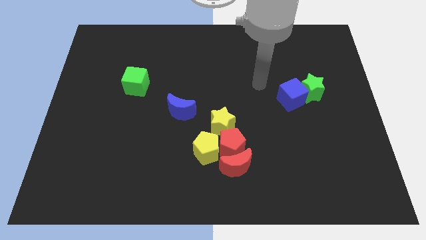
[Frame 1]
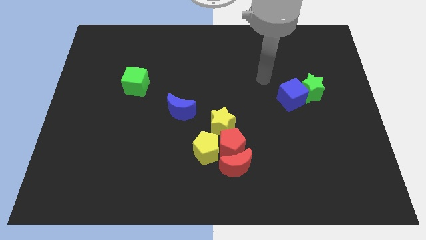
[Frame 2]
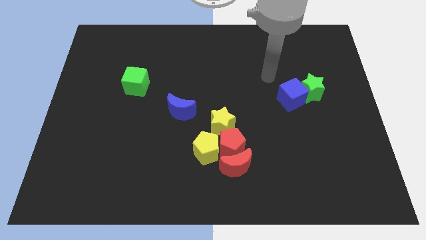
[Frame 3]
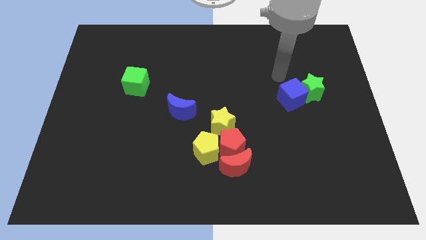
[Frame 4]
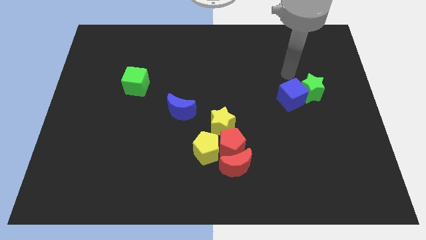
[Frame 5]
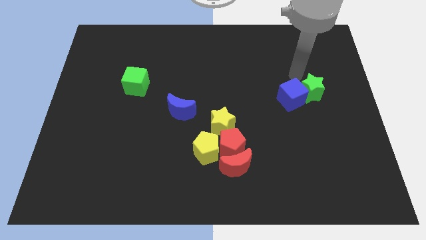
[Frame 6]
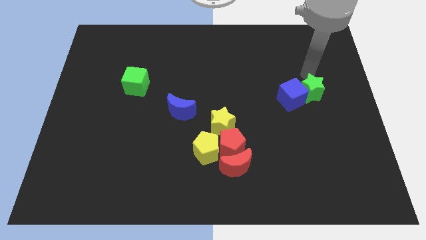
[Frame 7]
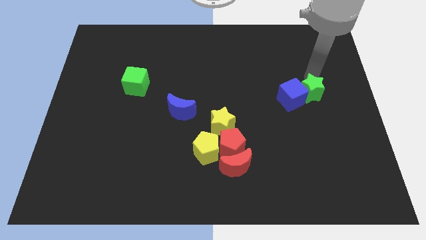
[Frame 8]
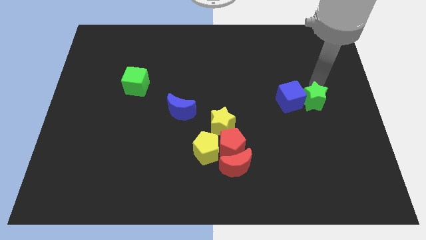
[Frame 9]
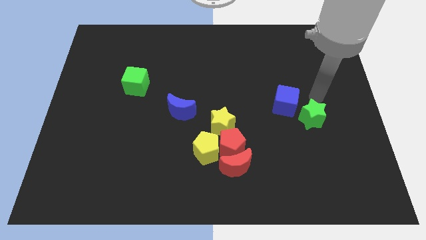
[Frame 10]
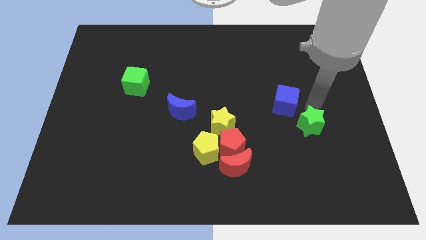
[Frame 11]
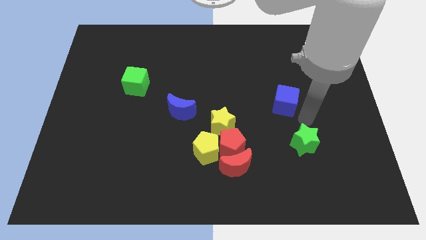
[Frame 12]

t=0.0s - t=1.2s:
move the blue cube away from the green star

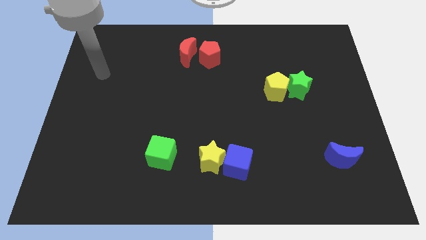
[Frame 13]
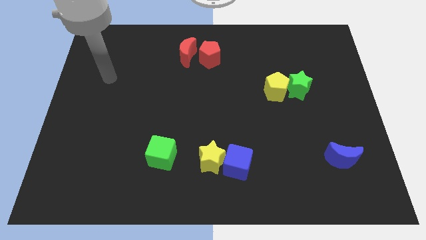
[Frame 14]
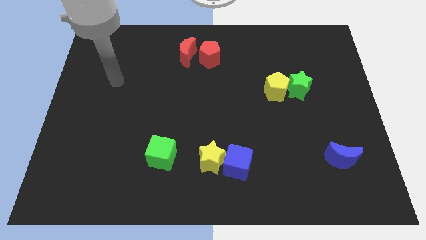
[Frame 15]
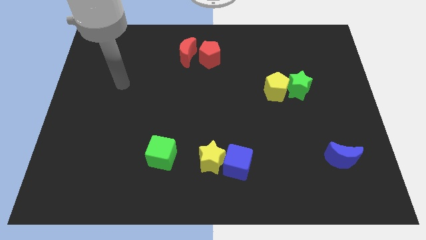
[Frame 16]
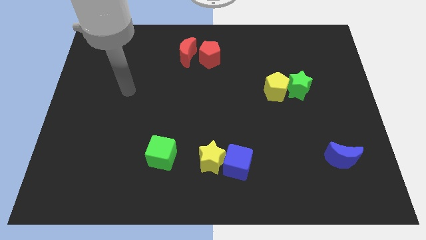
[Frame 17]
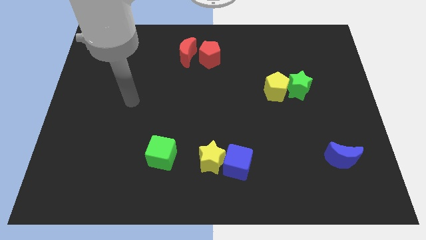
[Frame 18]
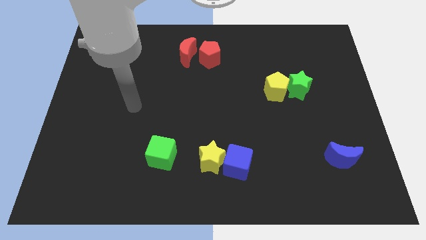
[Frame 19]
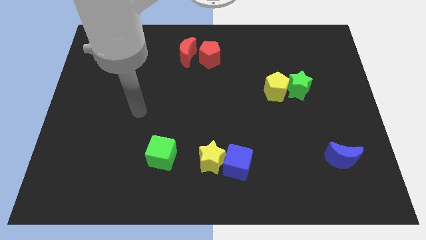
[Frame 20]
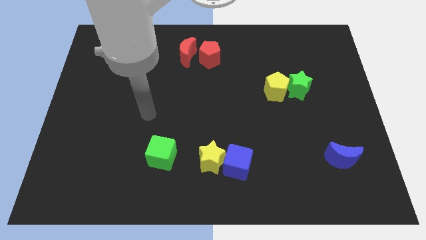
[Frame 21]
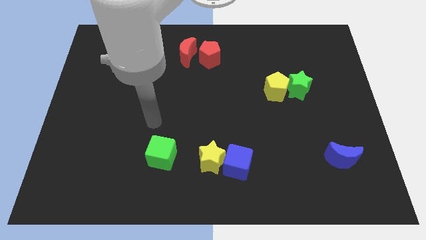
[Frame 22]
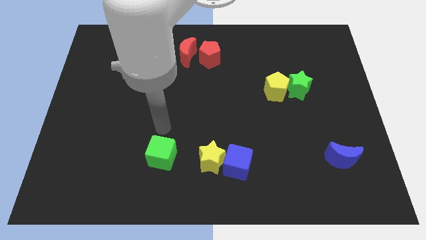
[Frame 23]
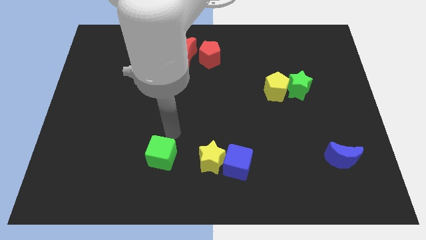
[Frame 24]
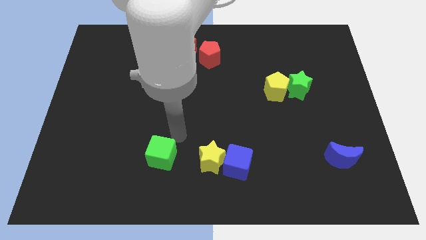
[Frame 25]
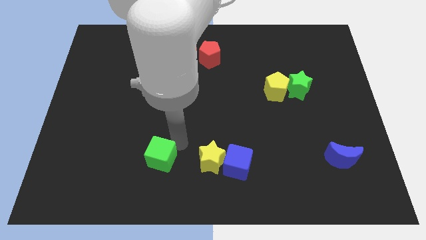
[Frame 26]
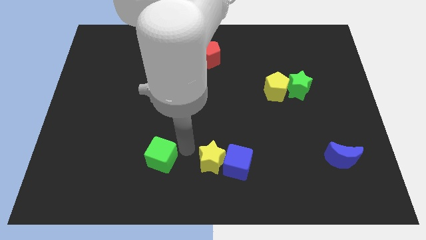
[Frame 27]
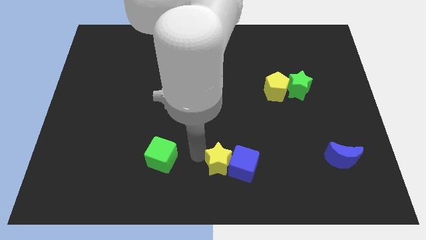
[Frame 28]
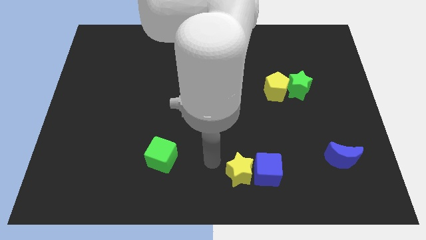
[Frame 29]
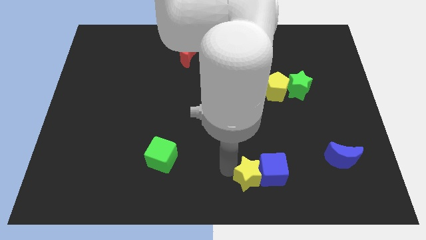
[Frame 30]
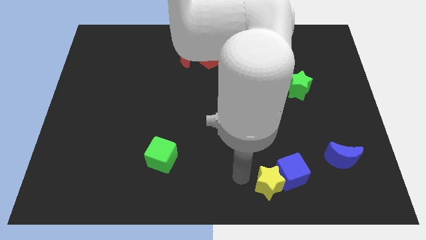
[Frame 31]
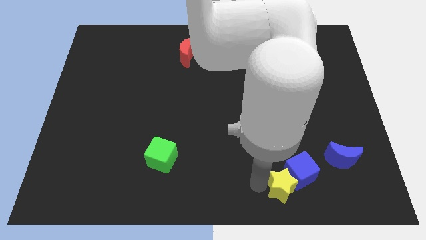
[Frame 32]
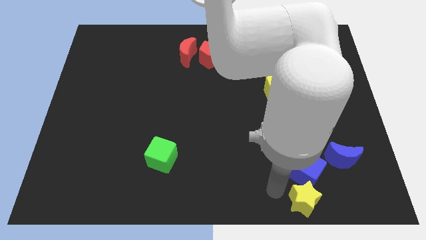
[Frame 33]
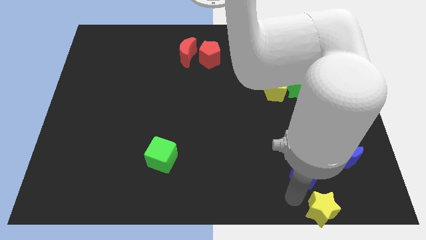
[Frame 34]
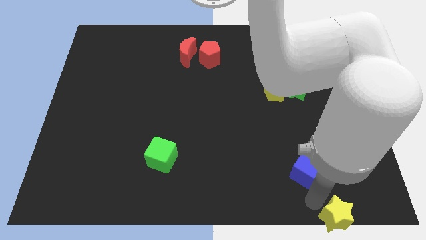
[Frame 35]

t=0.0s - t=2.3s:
separate the blue cube from the yellow star

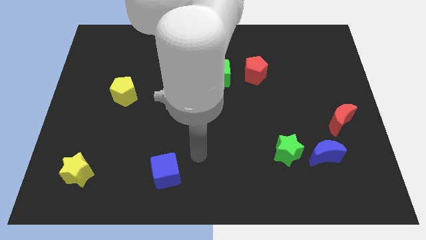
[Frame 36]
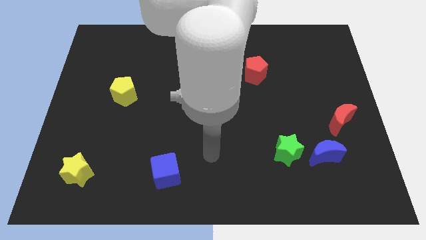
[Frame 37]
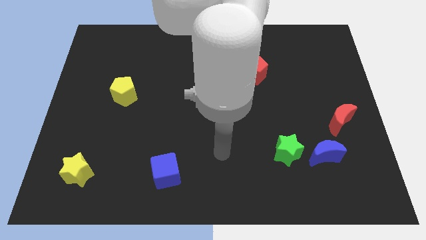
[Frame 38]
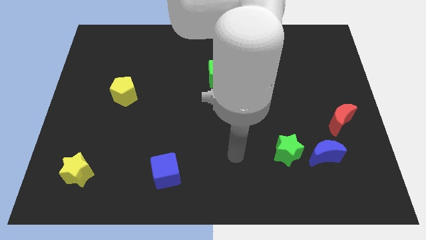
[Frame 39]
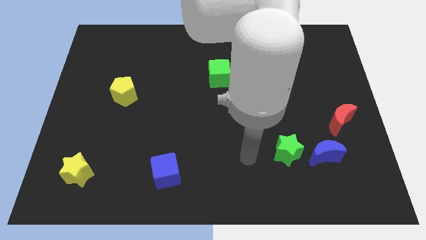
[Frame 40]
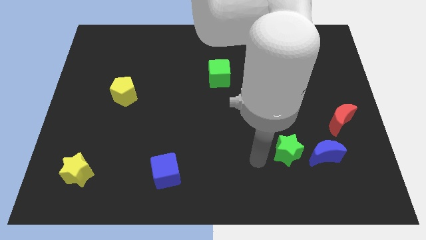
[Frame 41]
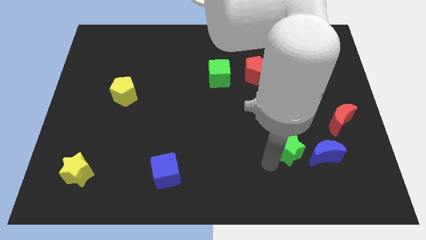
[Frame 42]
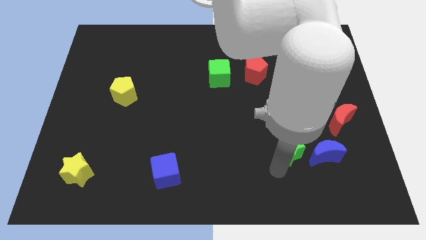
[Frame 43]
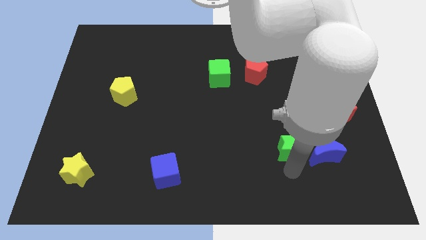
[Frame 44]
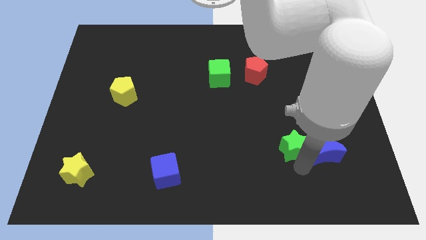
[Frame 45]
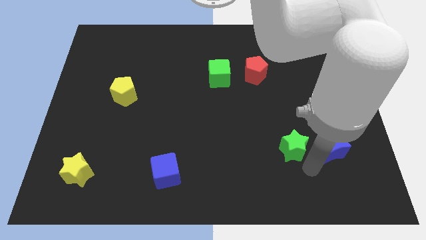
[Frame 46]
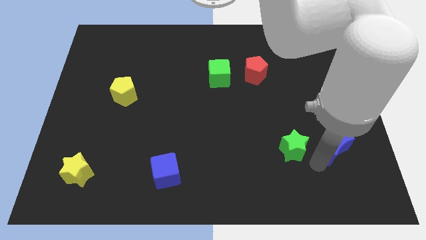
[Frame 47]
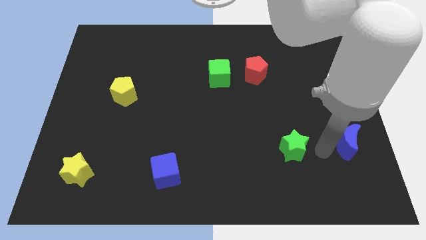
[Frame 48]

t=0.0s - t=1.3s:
pull the green star apart from the blue moon

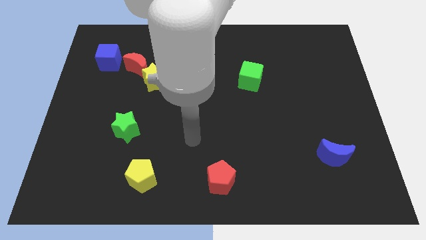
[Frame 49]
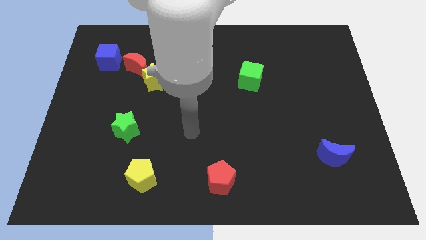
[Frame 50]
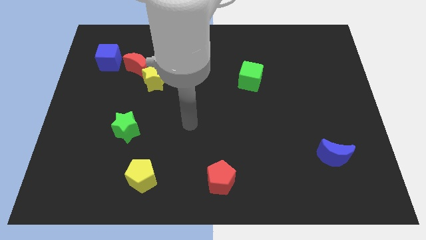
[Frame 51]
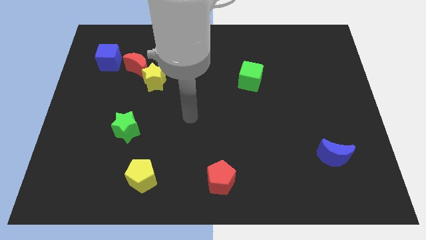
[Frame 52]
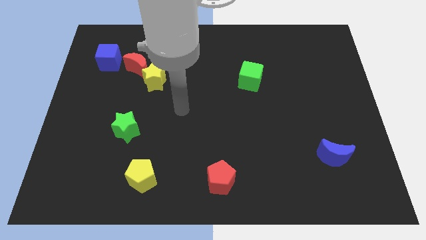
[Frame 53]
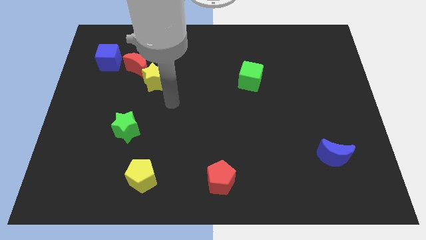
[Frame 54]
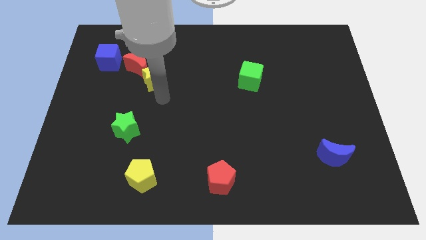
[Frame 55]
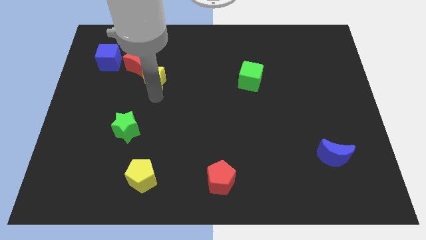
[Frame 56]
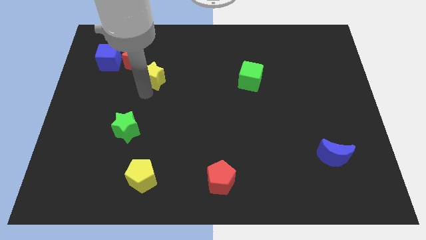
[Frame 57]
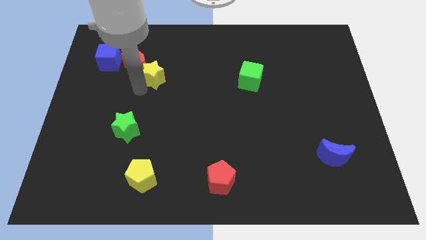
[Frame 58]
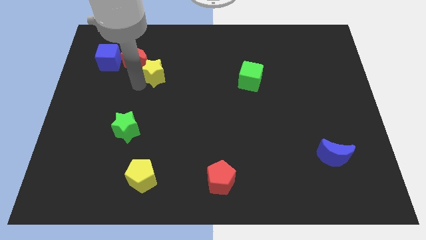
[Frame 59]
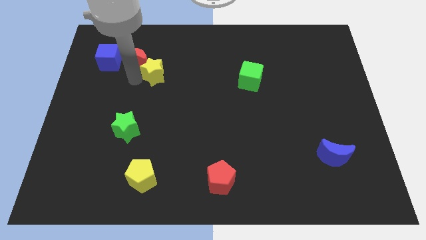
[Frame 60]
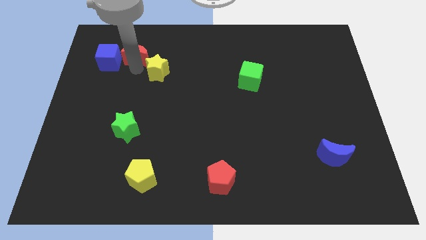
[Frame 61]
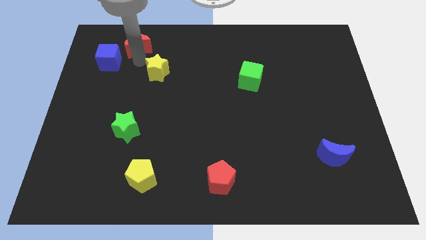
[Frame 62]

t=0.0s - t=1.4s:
move the yellow star away from the red moon

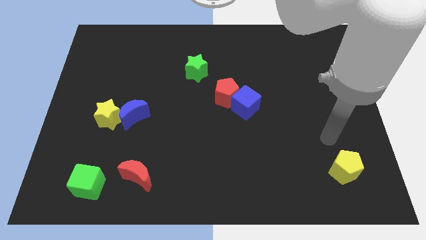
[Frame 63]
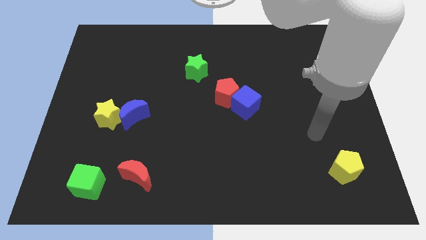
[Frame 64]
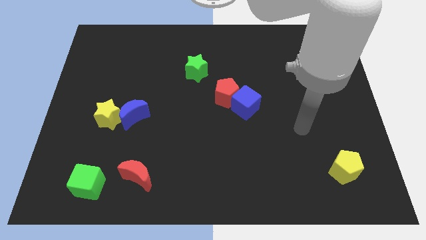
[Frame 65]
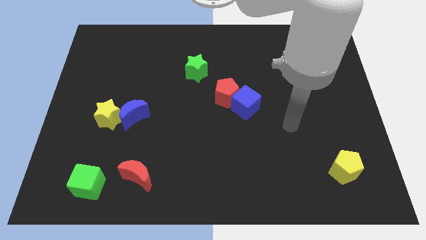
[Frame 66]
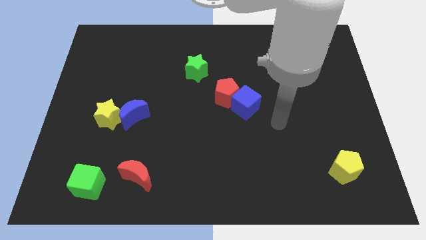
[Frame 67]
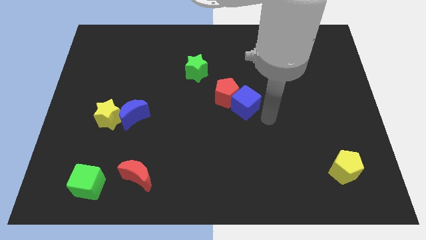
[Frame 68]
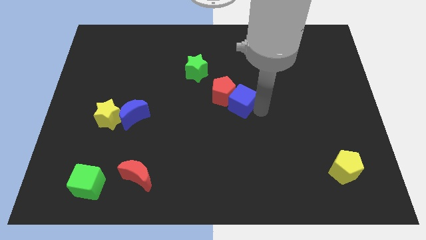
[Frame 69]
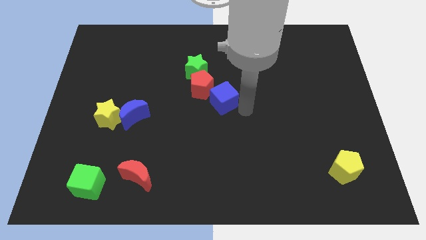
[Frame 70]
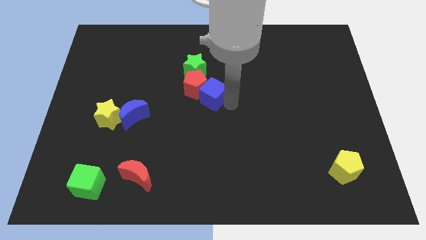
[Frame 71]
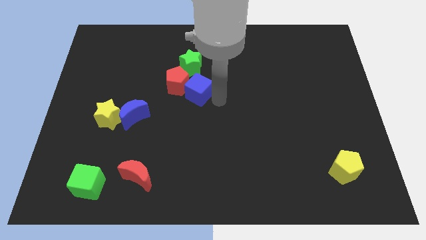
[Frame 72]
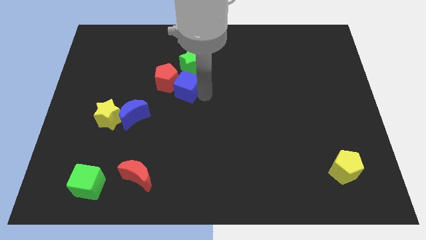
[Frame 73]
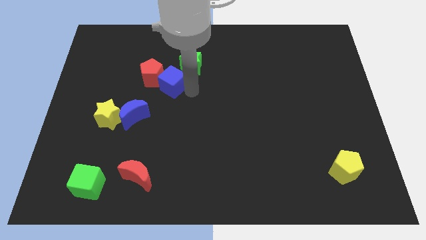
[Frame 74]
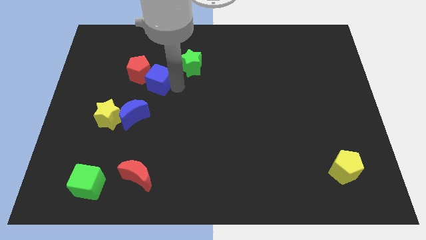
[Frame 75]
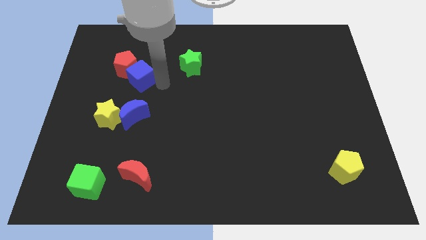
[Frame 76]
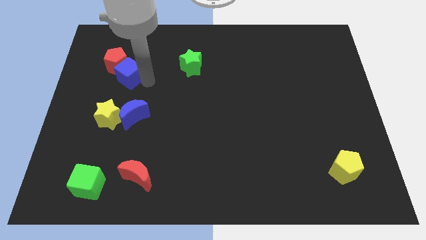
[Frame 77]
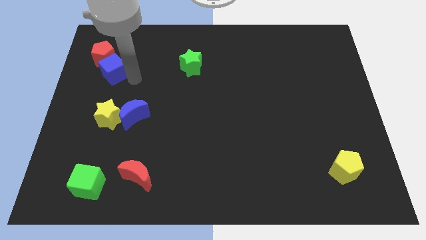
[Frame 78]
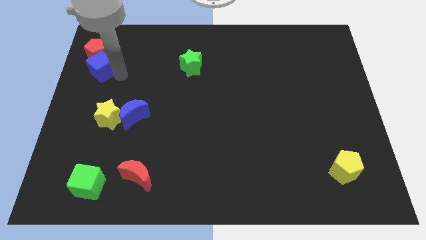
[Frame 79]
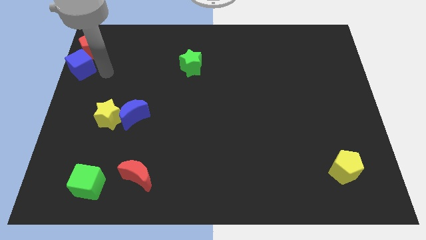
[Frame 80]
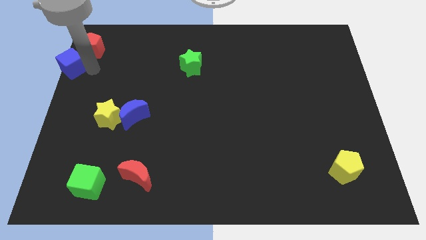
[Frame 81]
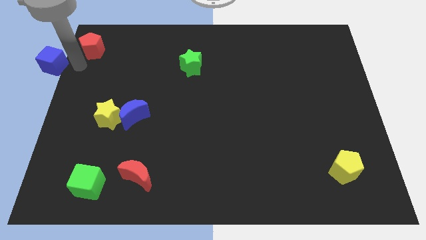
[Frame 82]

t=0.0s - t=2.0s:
separate the red pentagon from the blue cube

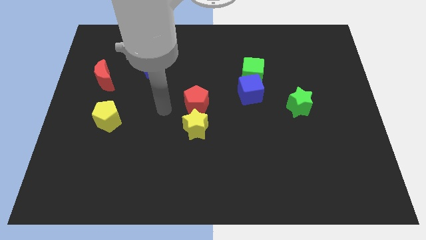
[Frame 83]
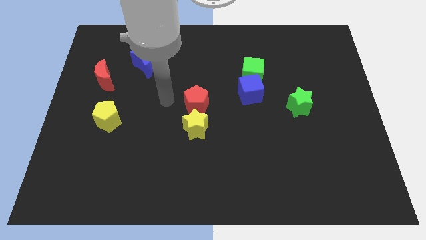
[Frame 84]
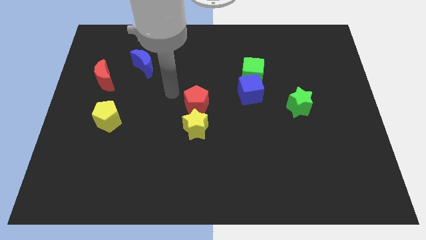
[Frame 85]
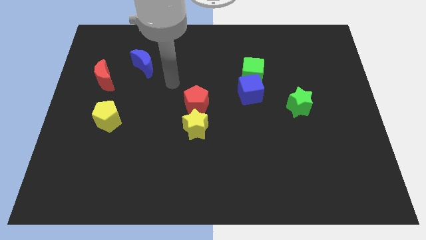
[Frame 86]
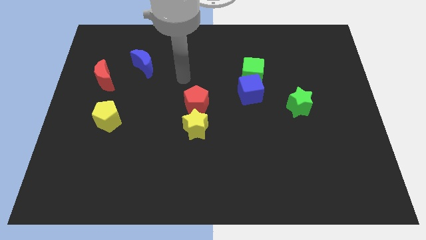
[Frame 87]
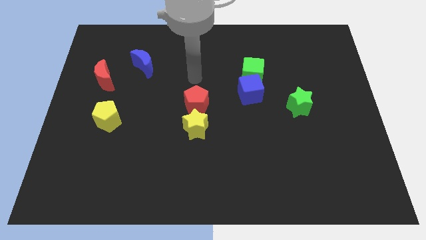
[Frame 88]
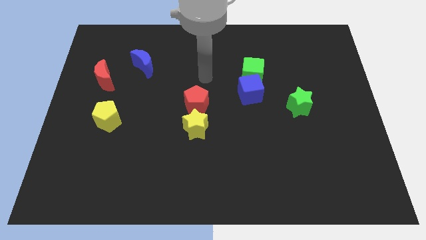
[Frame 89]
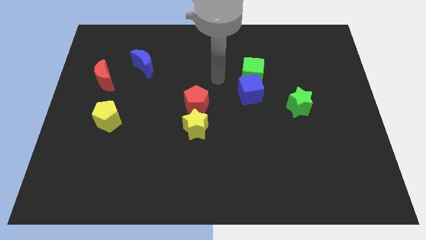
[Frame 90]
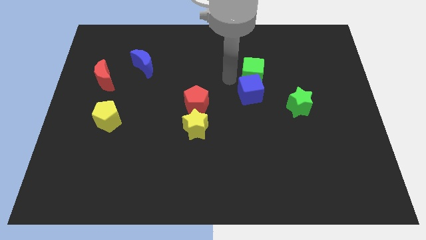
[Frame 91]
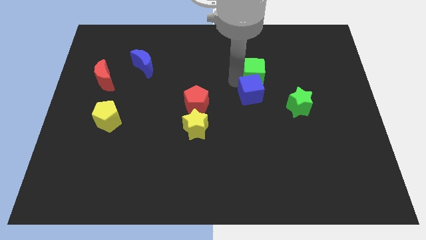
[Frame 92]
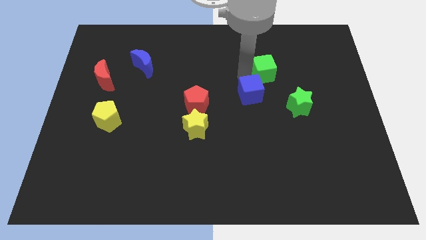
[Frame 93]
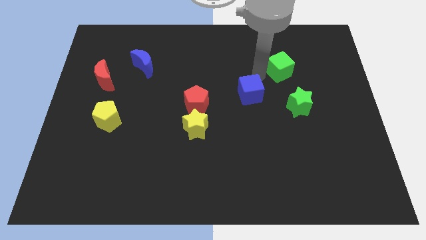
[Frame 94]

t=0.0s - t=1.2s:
move the blue cube away from the green cube
